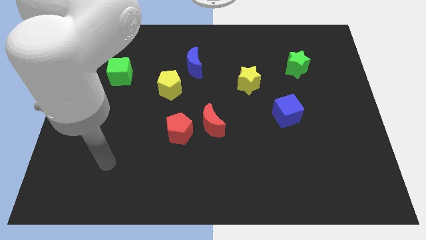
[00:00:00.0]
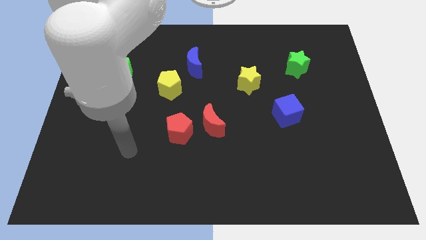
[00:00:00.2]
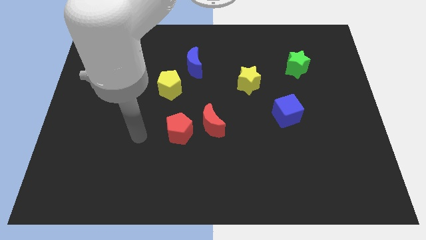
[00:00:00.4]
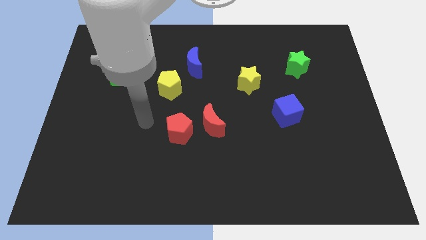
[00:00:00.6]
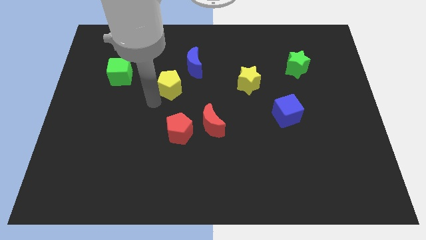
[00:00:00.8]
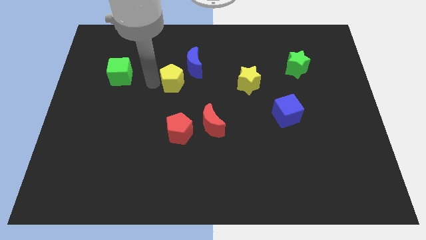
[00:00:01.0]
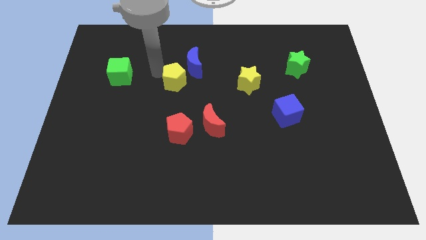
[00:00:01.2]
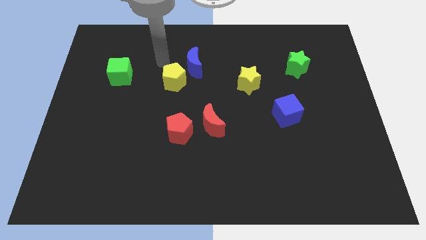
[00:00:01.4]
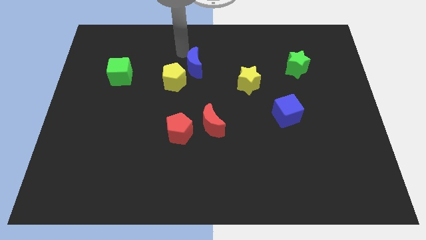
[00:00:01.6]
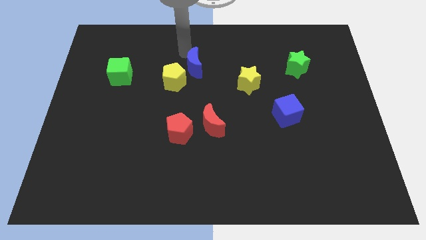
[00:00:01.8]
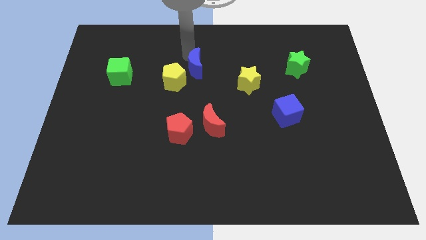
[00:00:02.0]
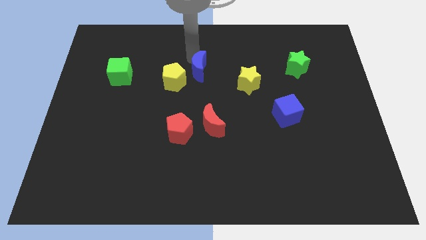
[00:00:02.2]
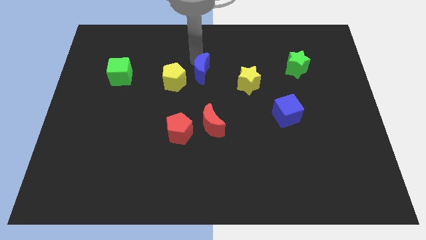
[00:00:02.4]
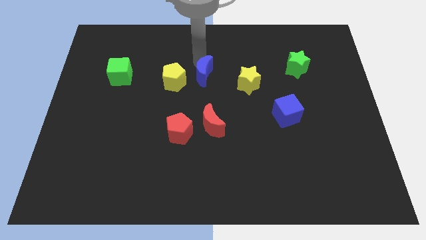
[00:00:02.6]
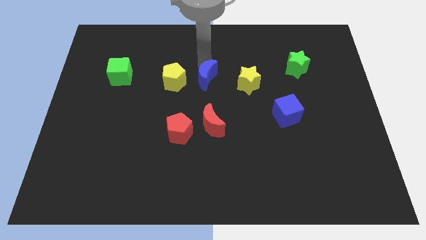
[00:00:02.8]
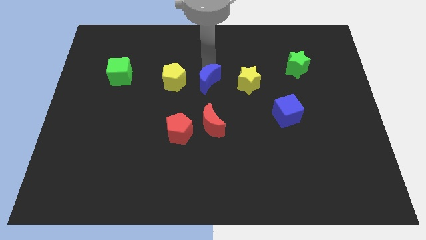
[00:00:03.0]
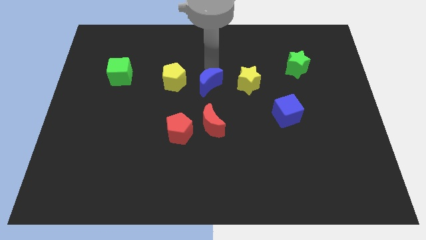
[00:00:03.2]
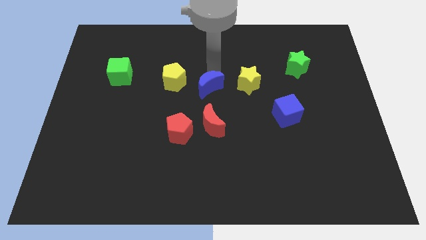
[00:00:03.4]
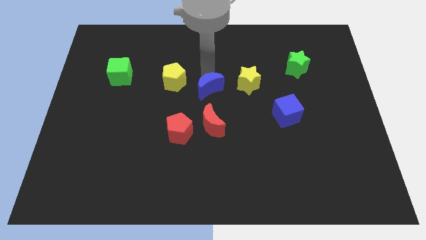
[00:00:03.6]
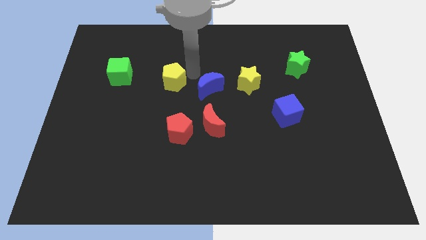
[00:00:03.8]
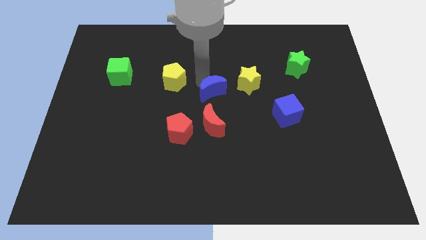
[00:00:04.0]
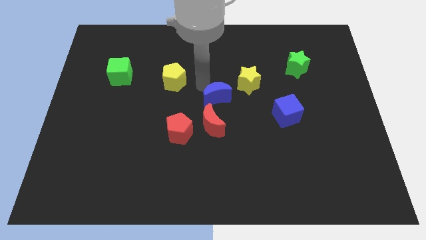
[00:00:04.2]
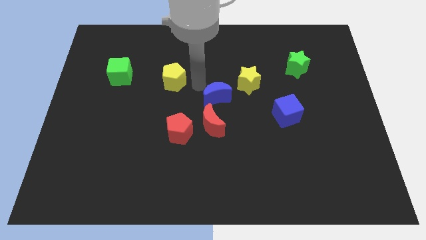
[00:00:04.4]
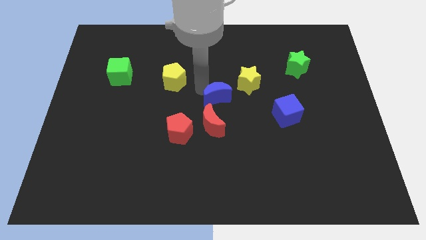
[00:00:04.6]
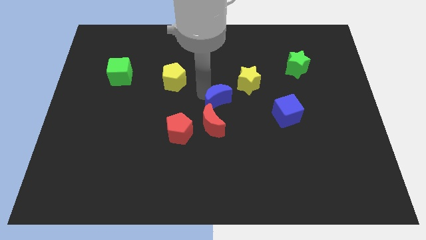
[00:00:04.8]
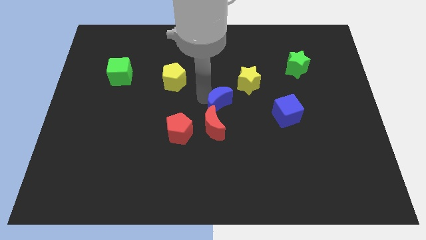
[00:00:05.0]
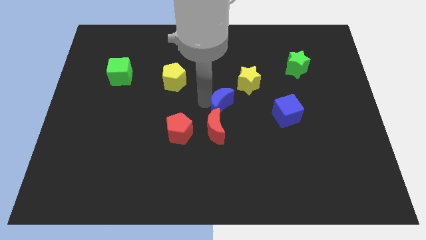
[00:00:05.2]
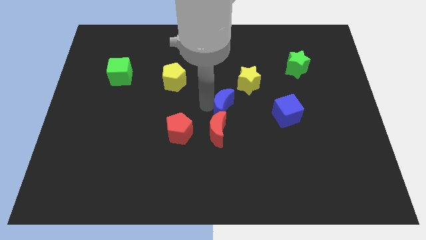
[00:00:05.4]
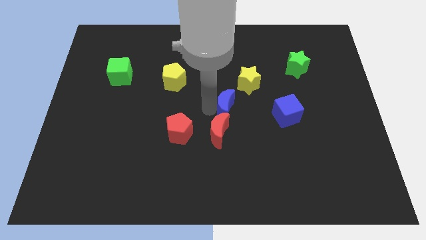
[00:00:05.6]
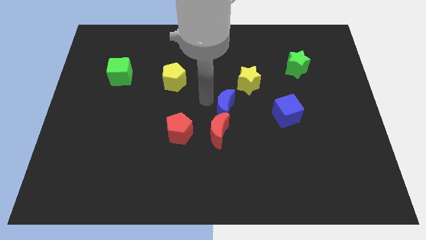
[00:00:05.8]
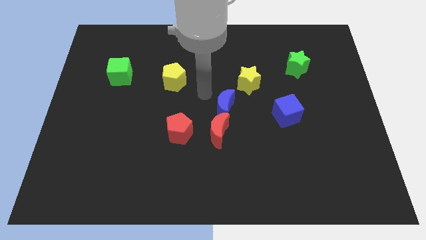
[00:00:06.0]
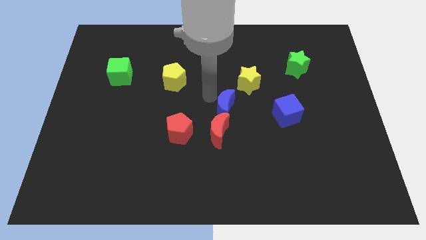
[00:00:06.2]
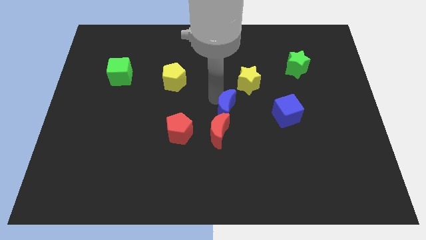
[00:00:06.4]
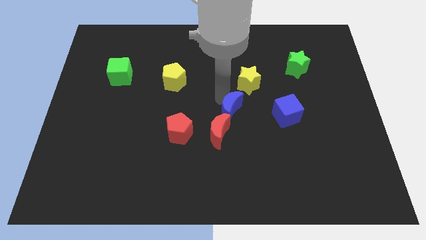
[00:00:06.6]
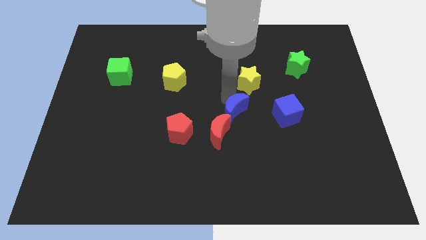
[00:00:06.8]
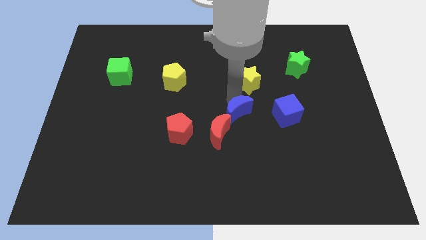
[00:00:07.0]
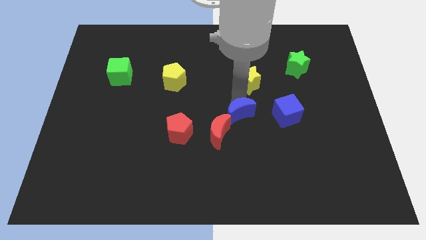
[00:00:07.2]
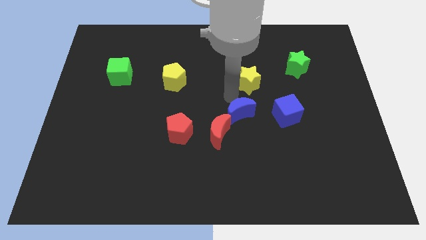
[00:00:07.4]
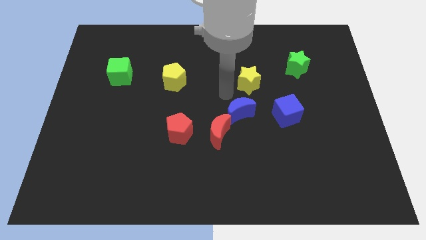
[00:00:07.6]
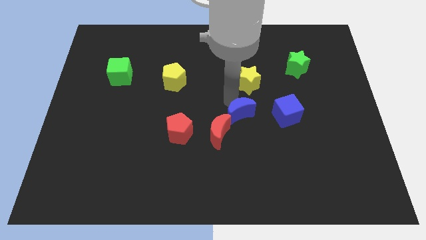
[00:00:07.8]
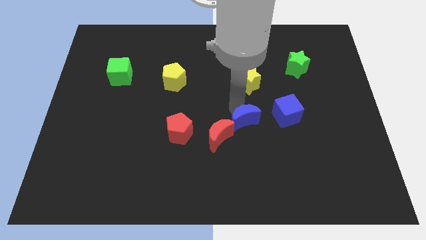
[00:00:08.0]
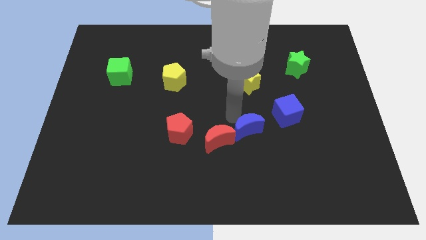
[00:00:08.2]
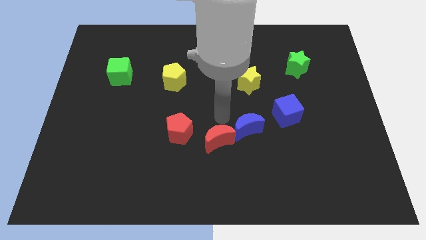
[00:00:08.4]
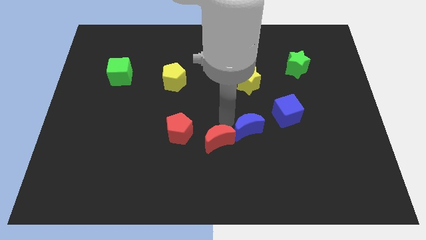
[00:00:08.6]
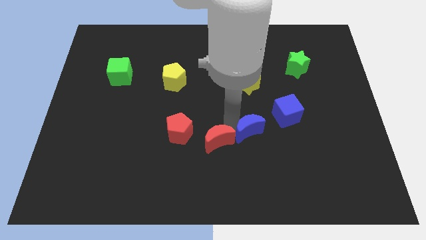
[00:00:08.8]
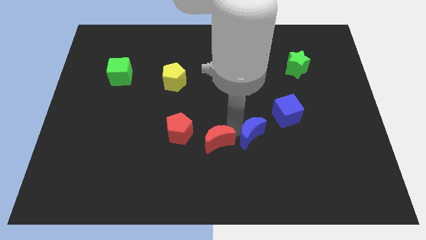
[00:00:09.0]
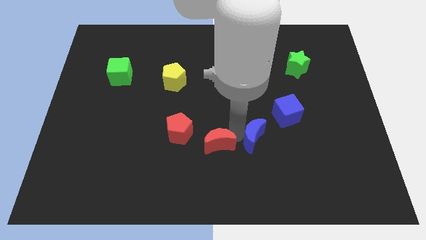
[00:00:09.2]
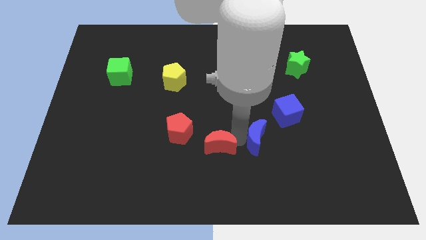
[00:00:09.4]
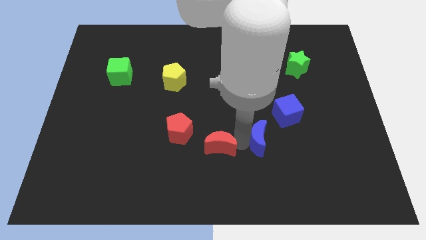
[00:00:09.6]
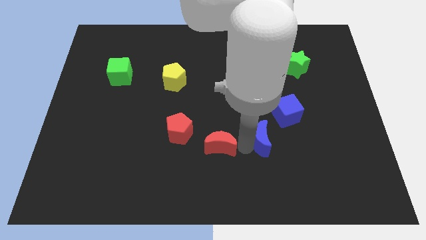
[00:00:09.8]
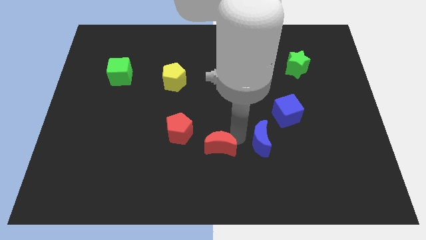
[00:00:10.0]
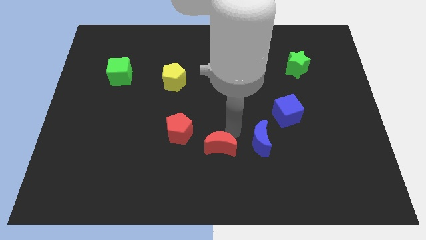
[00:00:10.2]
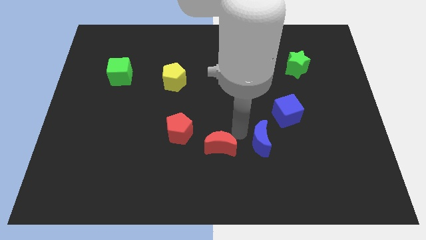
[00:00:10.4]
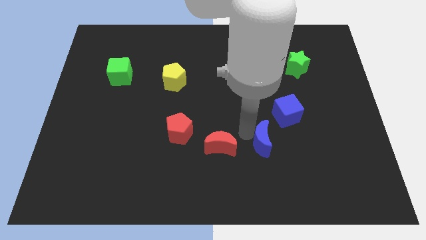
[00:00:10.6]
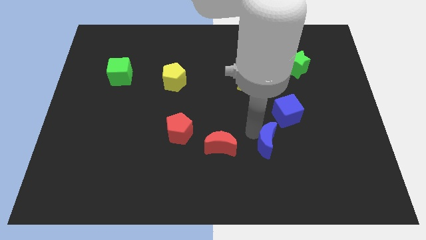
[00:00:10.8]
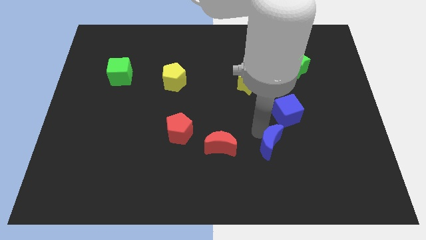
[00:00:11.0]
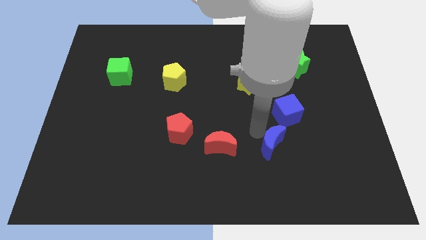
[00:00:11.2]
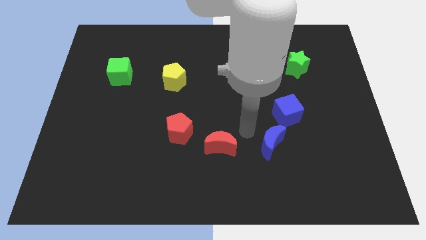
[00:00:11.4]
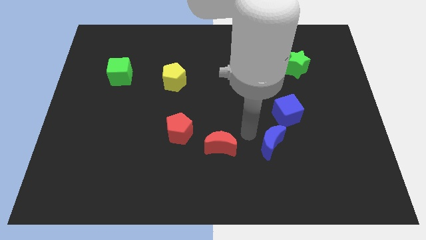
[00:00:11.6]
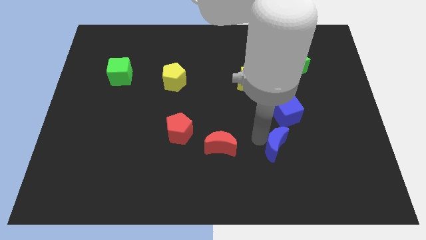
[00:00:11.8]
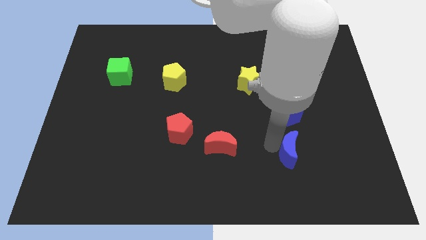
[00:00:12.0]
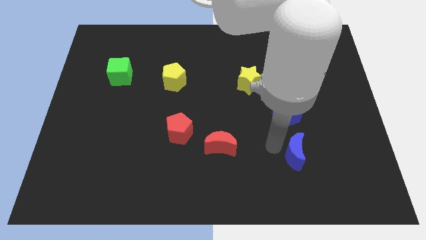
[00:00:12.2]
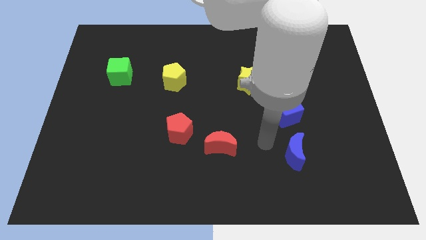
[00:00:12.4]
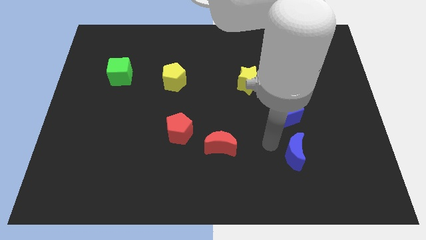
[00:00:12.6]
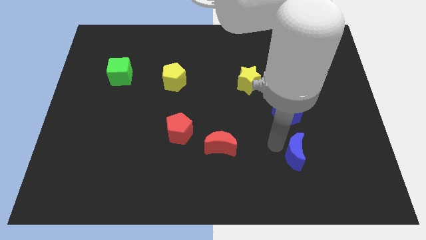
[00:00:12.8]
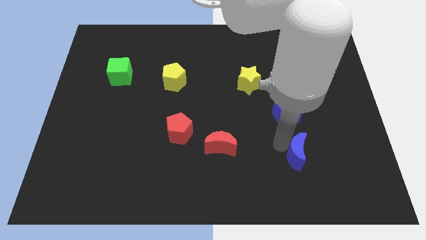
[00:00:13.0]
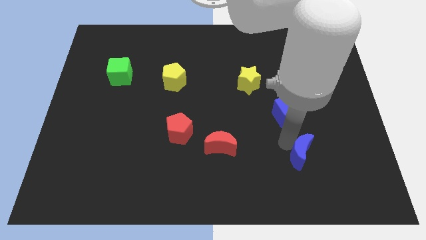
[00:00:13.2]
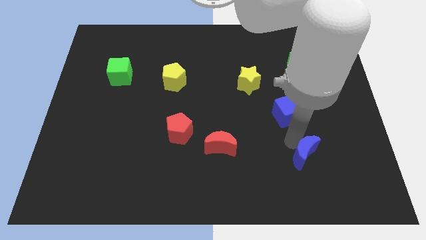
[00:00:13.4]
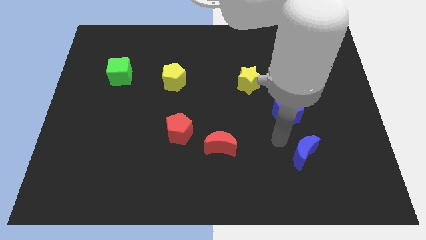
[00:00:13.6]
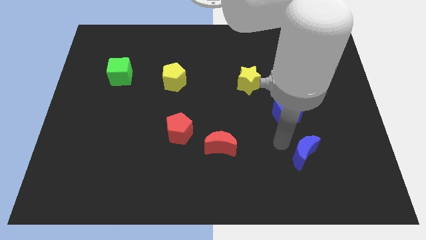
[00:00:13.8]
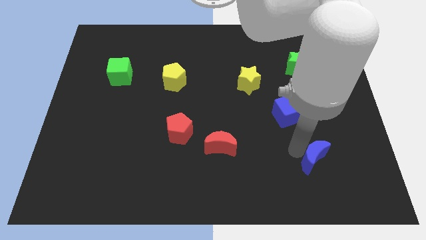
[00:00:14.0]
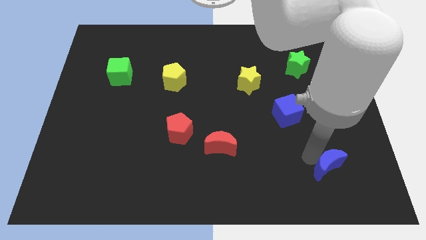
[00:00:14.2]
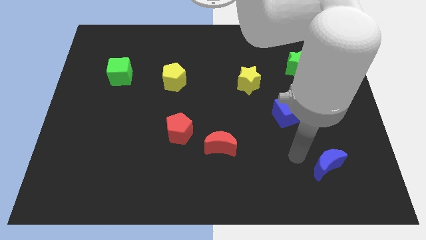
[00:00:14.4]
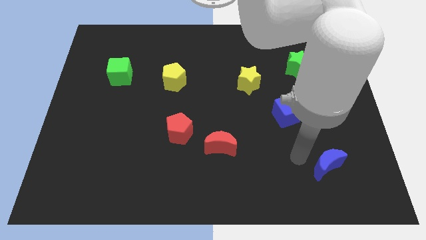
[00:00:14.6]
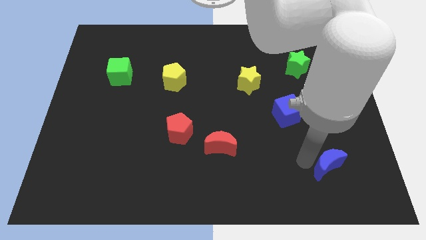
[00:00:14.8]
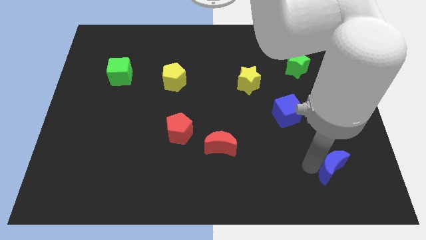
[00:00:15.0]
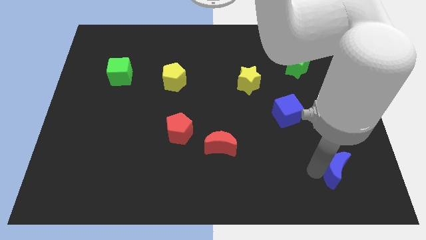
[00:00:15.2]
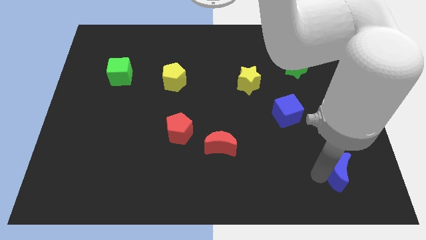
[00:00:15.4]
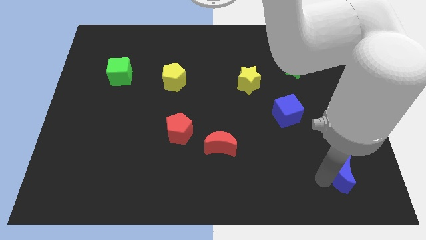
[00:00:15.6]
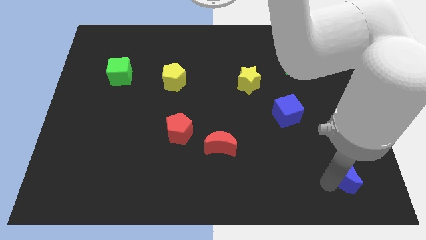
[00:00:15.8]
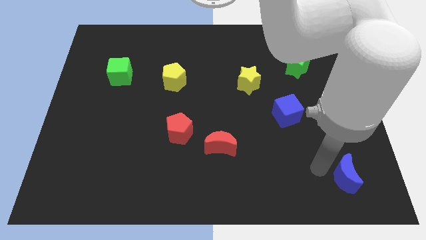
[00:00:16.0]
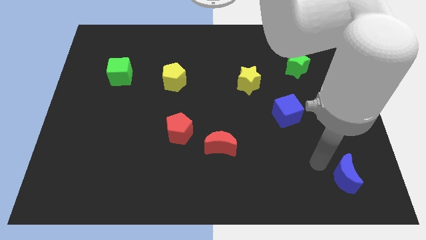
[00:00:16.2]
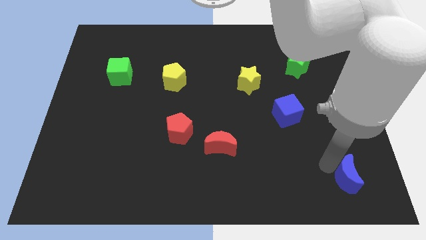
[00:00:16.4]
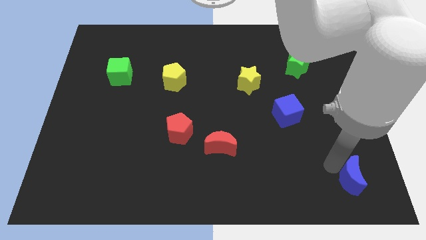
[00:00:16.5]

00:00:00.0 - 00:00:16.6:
put the blue moon to the lower right corner
